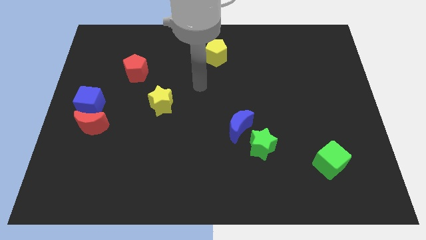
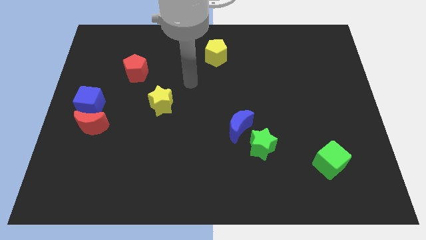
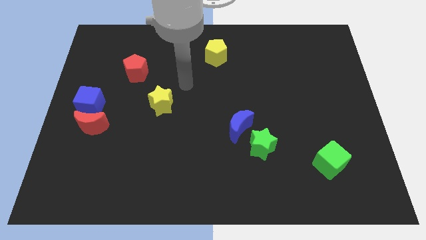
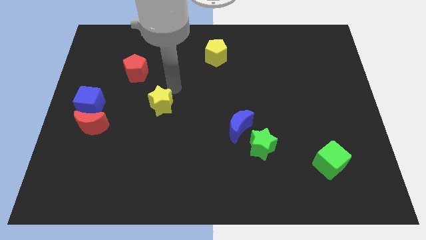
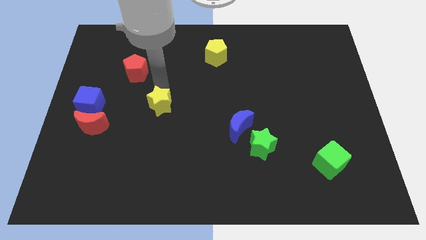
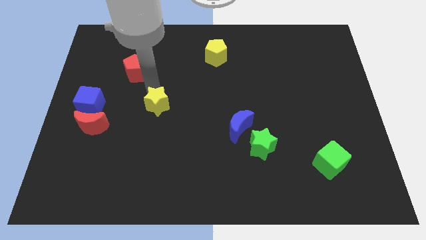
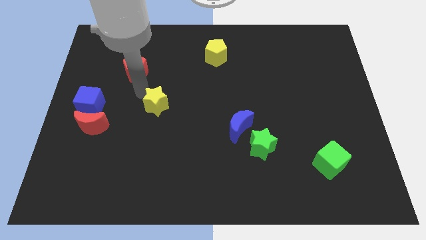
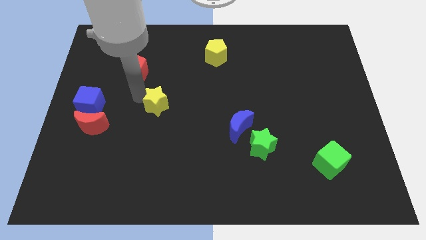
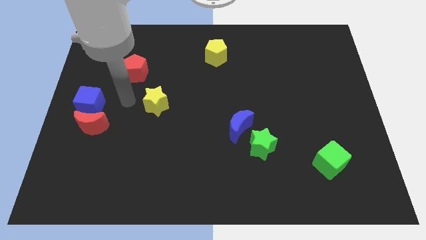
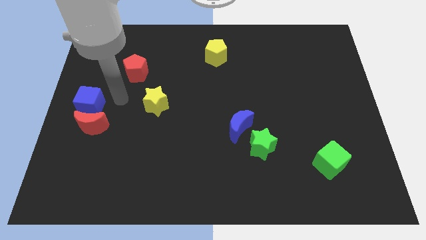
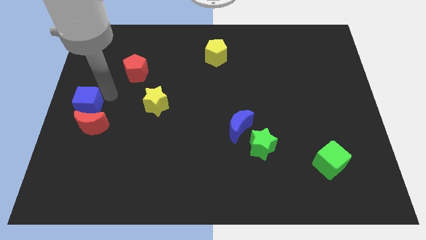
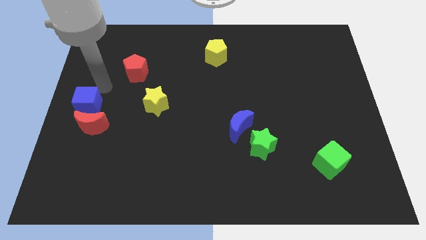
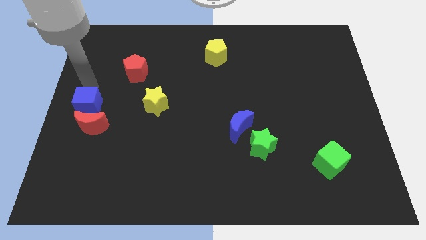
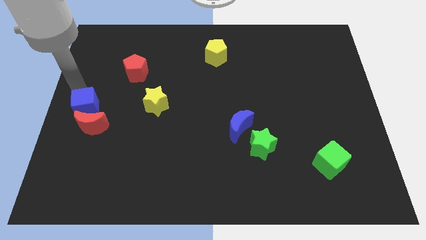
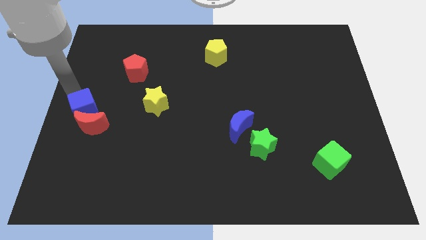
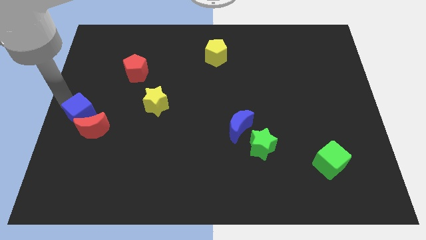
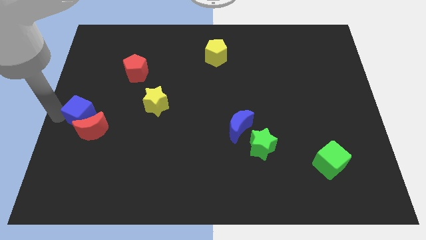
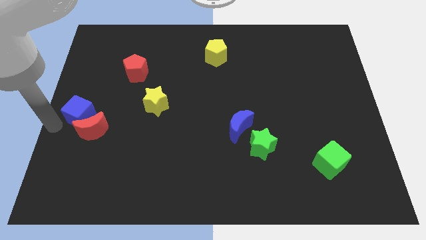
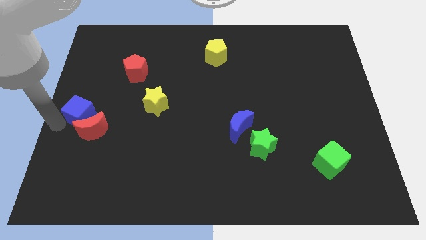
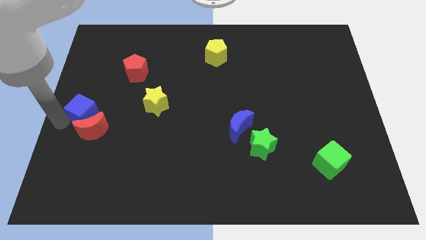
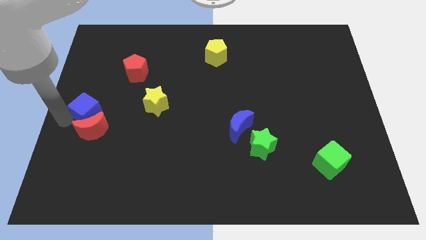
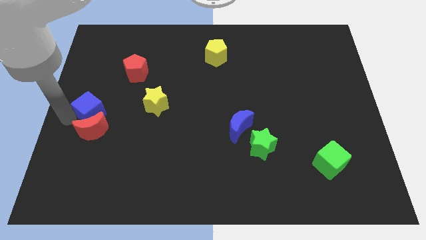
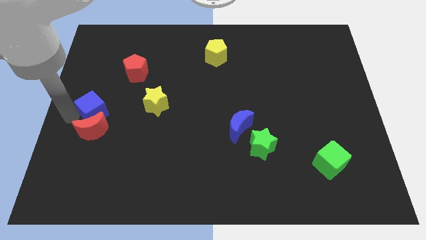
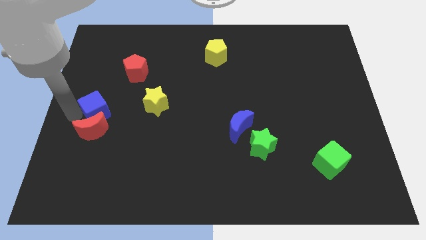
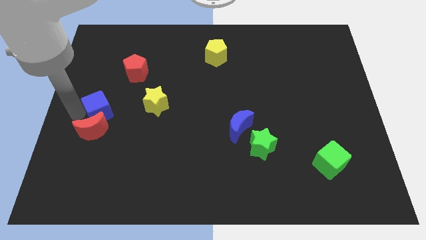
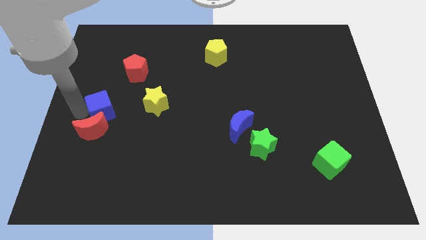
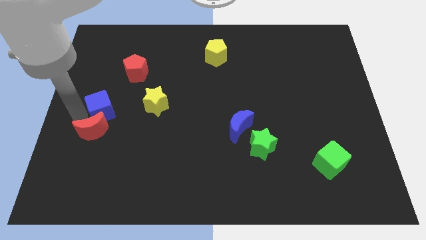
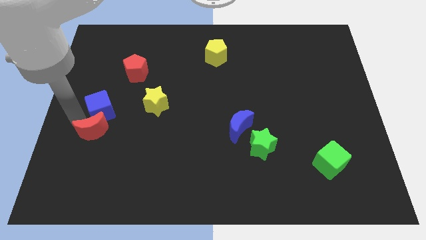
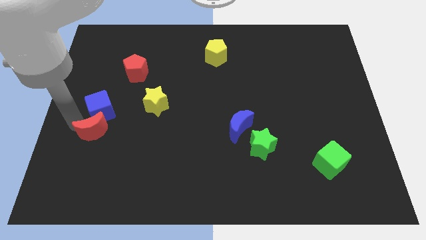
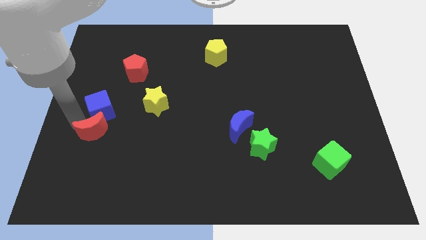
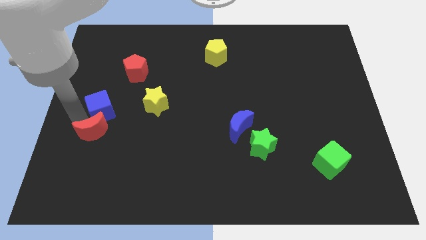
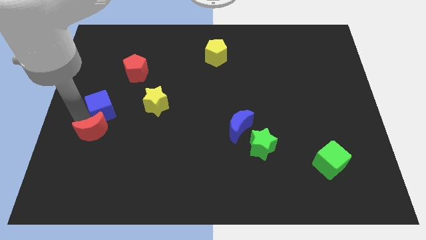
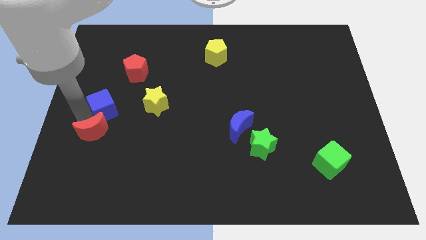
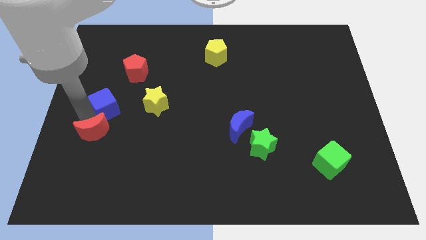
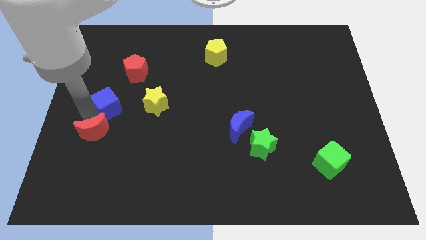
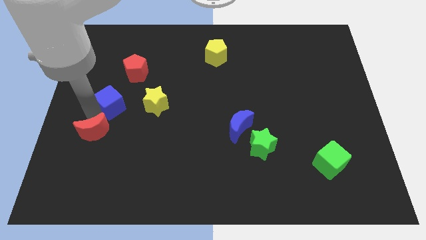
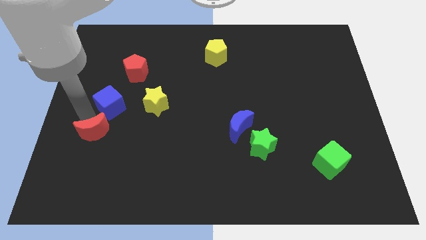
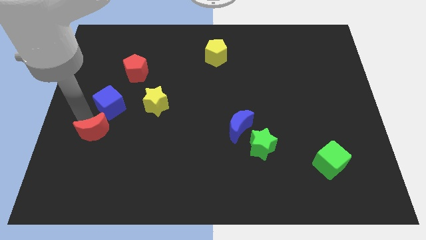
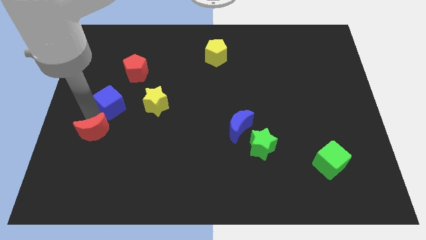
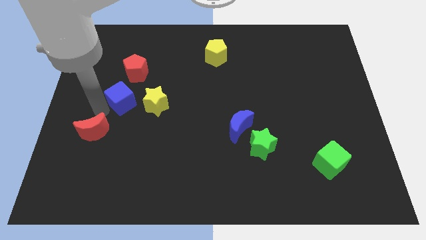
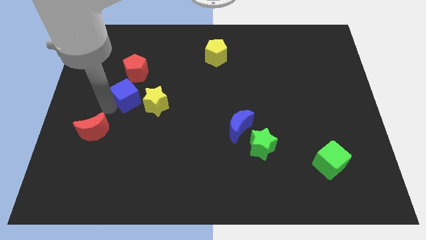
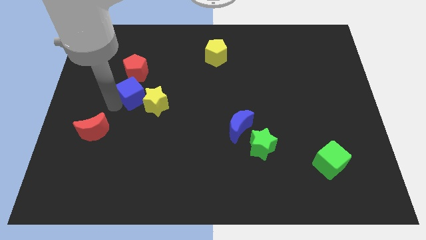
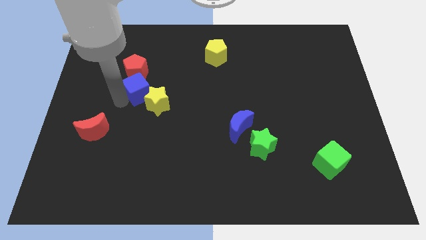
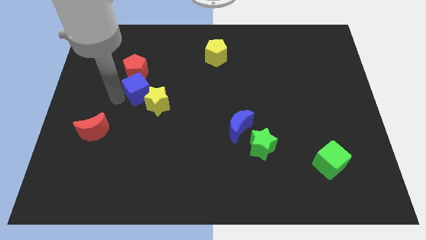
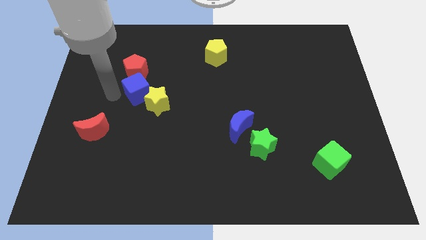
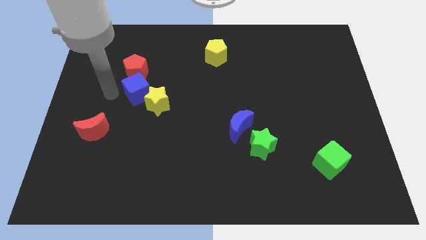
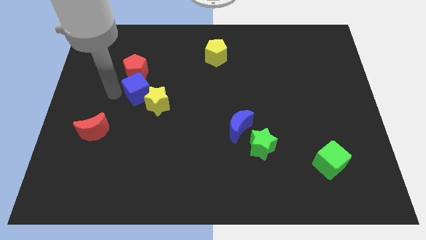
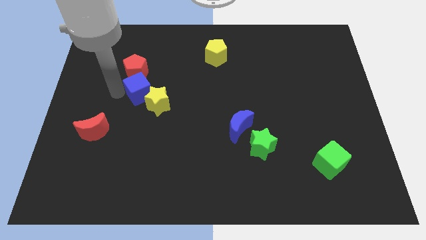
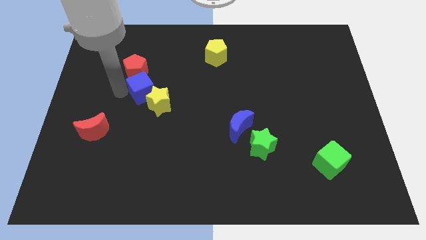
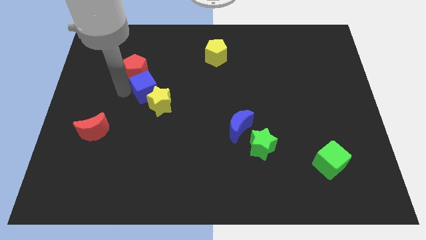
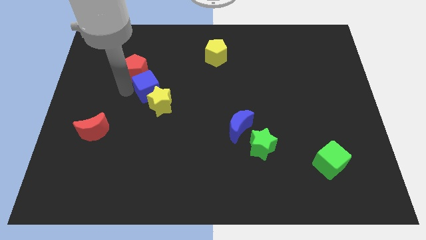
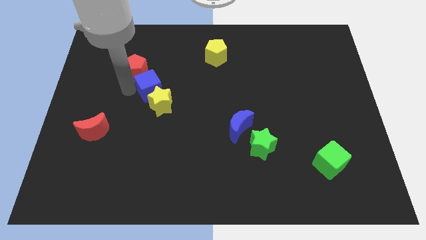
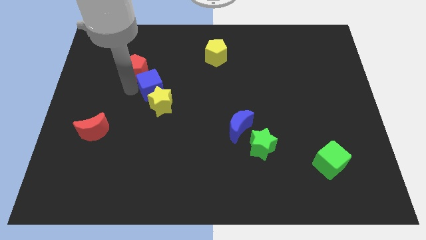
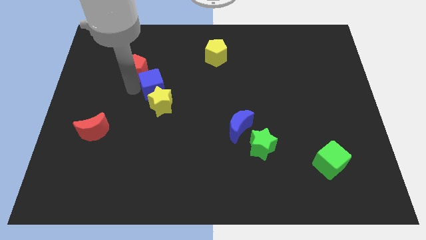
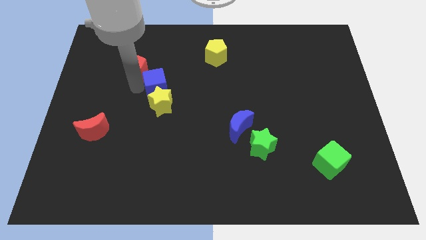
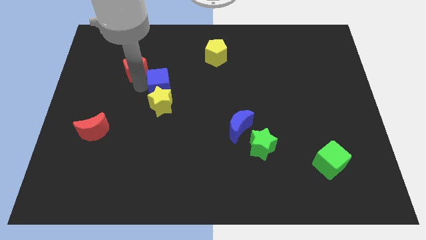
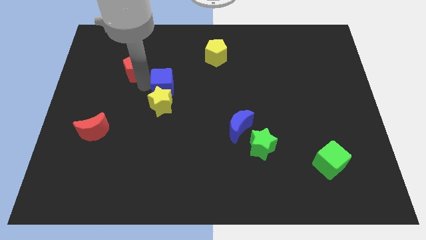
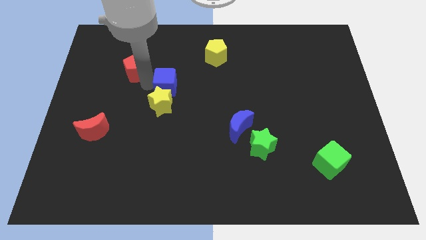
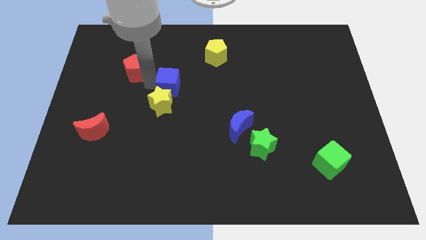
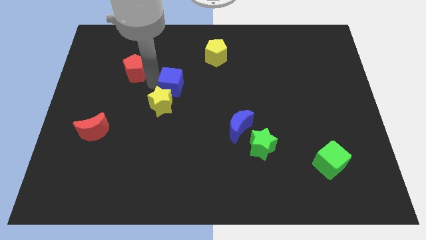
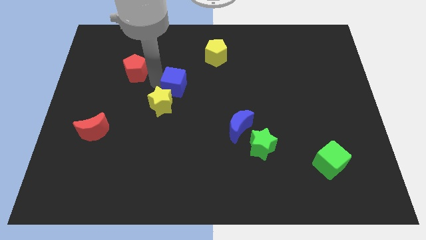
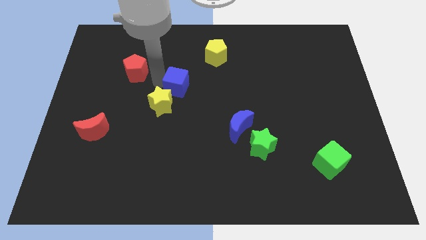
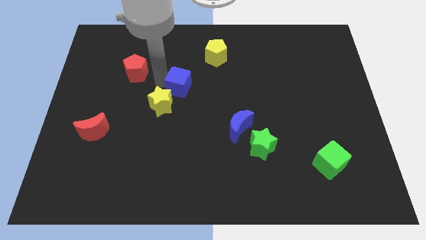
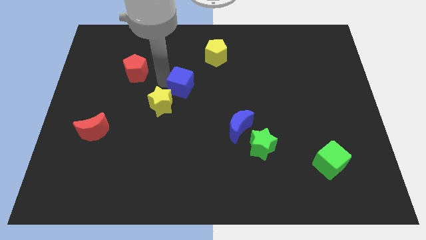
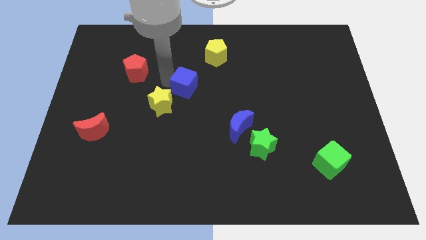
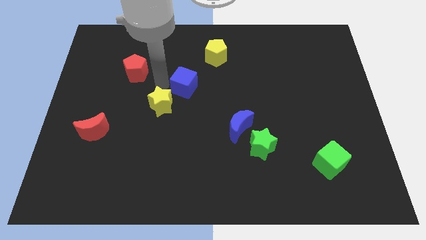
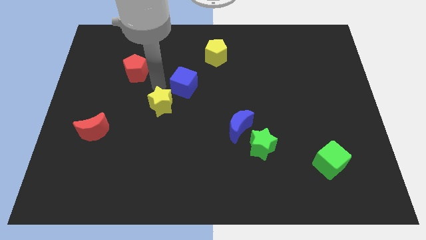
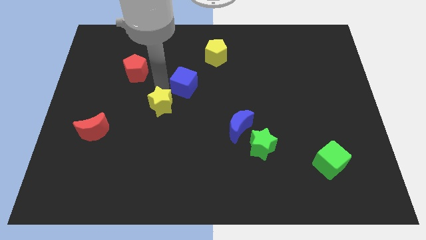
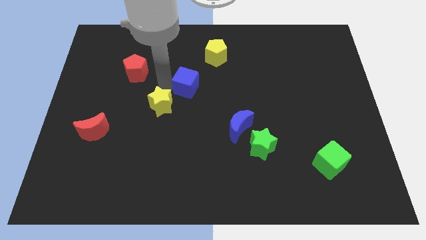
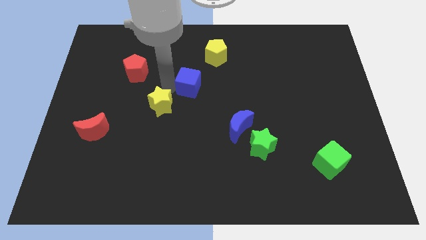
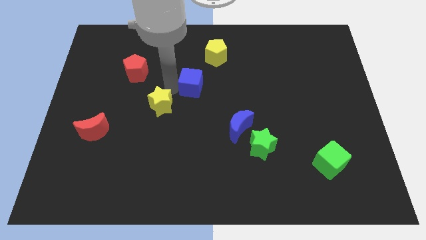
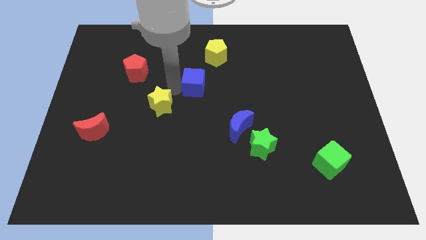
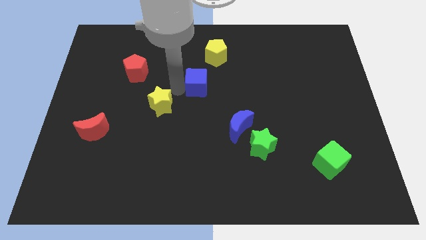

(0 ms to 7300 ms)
push the blue cube to the bottom of the yellow pentagon
